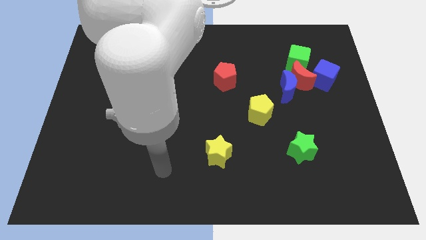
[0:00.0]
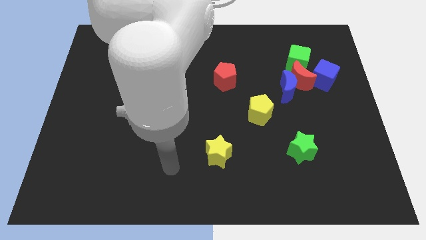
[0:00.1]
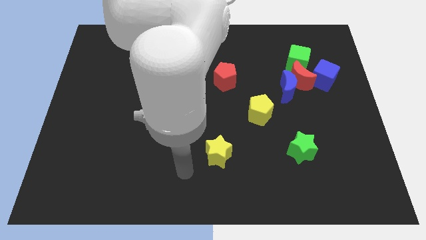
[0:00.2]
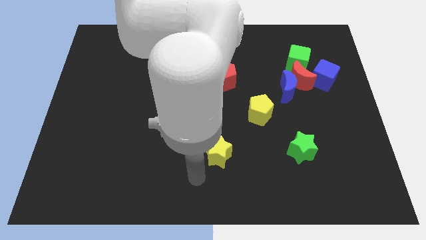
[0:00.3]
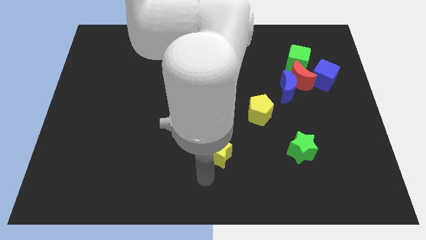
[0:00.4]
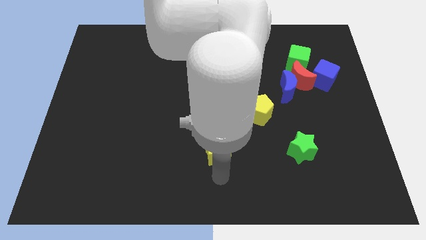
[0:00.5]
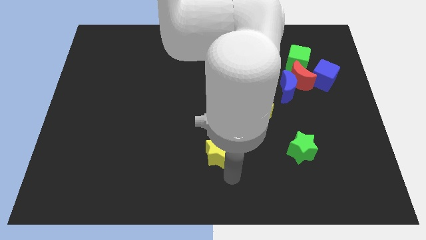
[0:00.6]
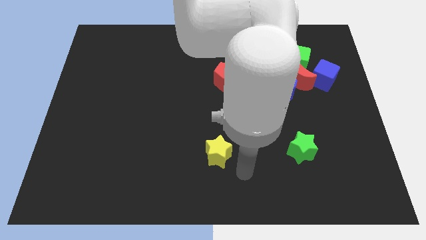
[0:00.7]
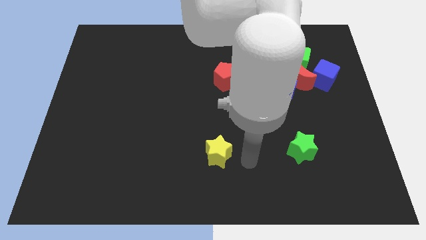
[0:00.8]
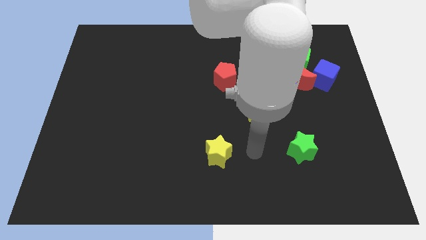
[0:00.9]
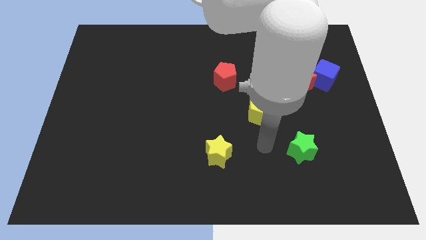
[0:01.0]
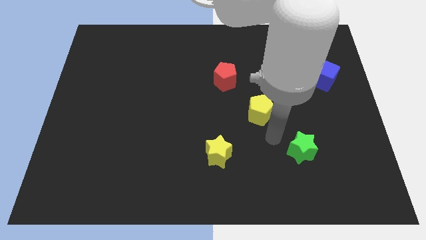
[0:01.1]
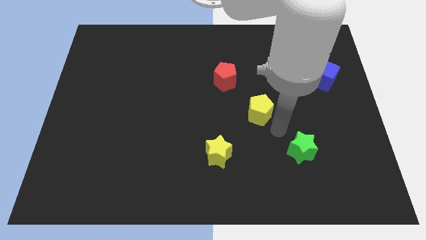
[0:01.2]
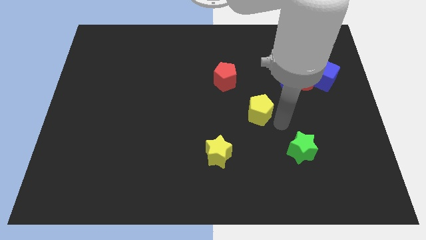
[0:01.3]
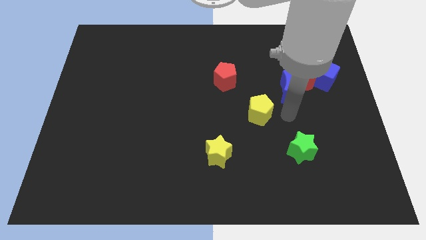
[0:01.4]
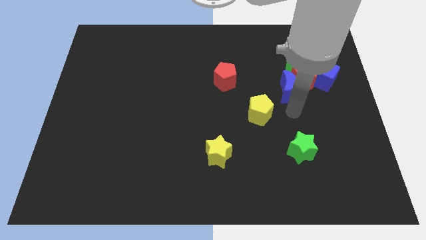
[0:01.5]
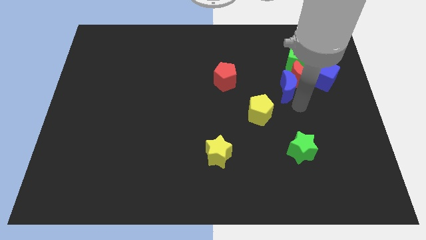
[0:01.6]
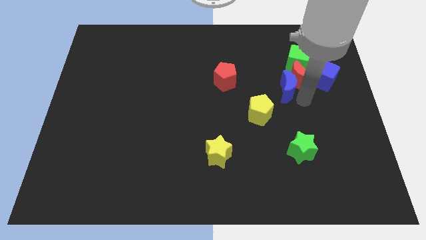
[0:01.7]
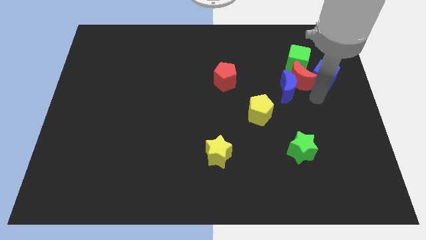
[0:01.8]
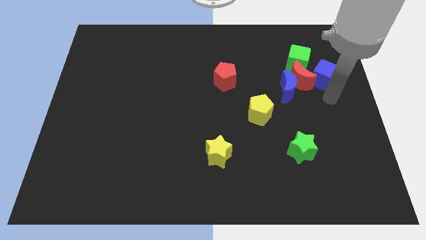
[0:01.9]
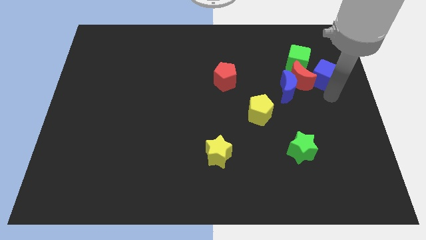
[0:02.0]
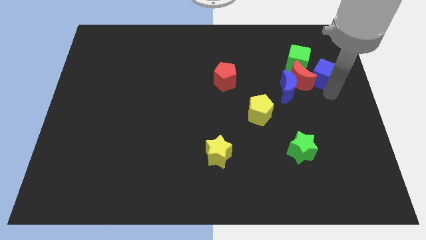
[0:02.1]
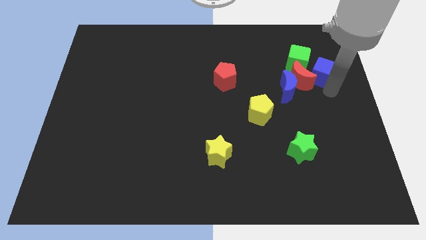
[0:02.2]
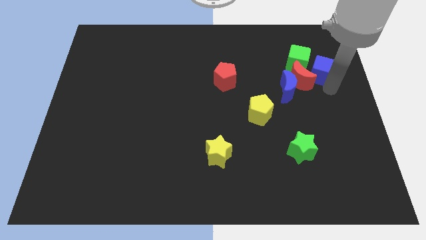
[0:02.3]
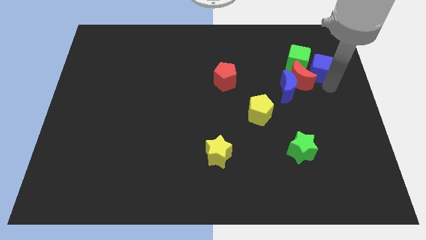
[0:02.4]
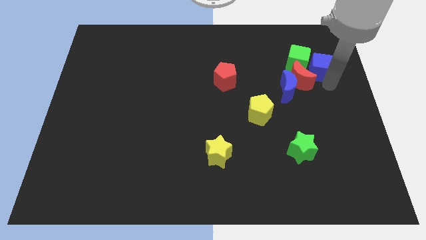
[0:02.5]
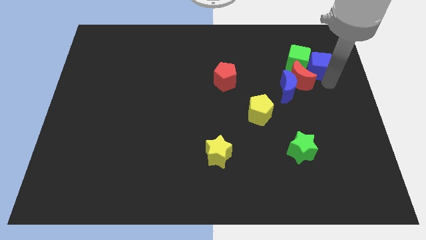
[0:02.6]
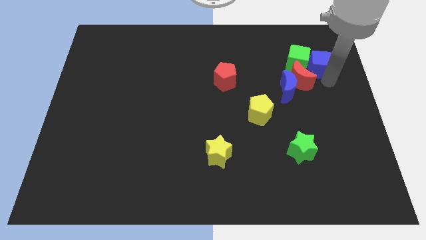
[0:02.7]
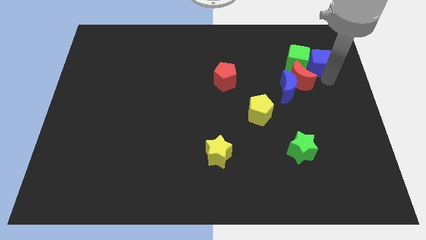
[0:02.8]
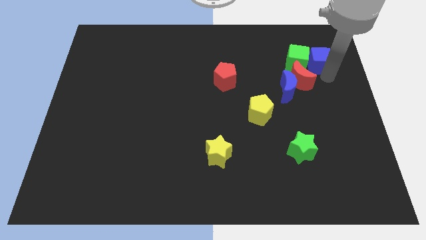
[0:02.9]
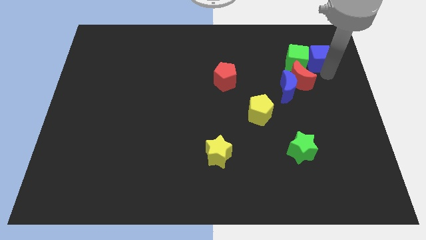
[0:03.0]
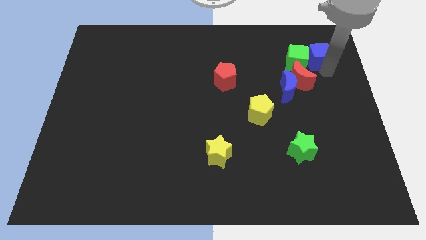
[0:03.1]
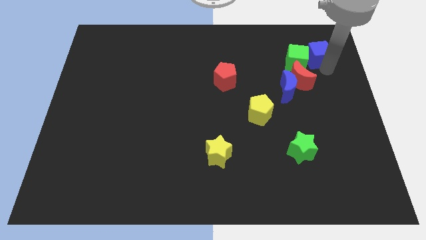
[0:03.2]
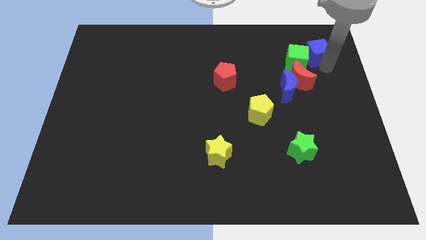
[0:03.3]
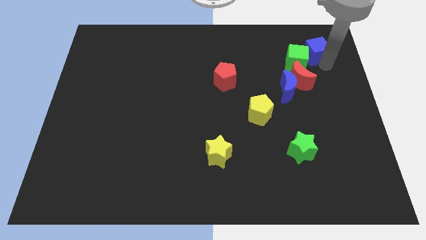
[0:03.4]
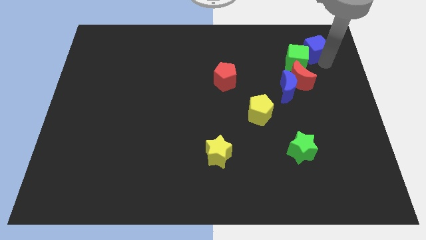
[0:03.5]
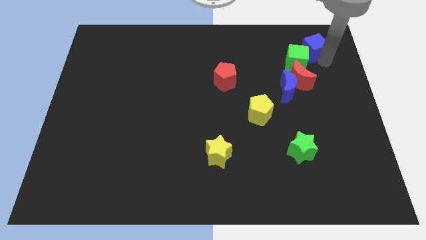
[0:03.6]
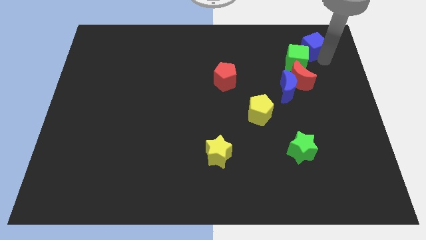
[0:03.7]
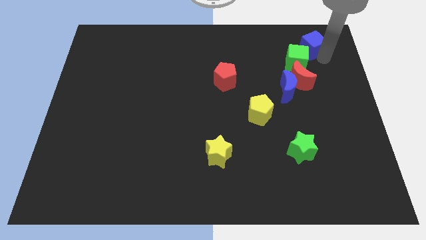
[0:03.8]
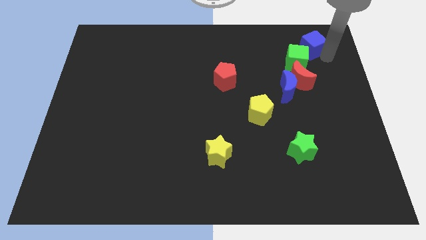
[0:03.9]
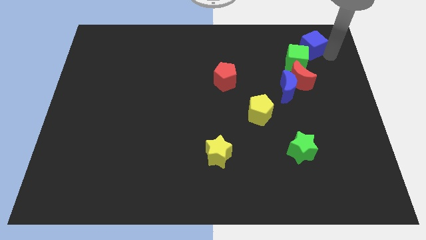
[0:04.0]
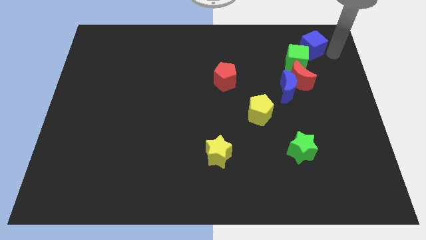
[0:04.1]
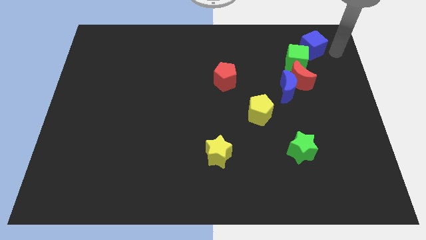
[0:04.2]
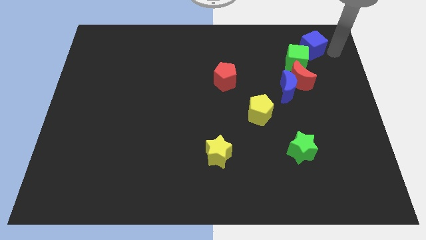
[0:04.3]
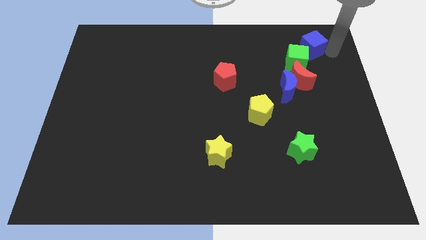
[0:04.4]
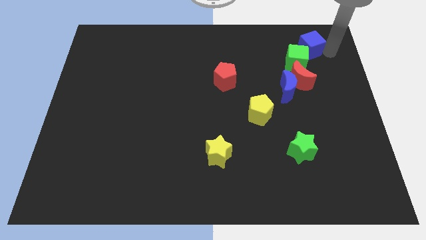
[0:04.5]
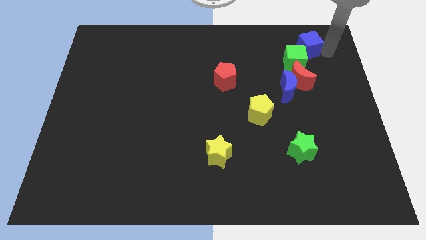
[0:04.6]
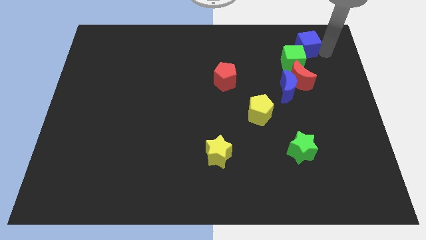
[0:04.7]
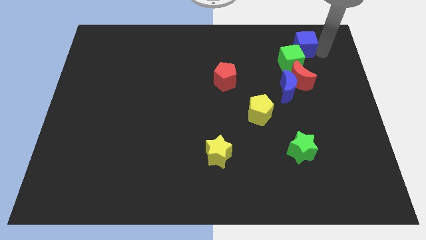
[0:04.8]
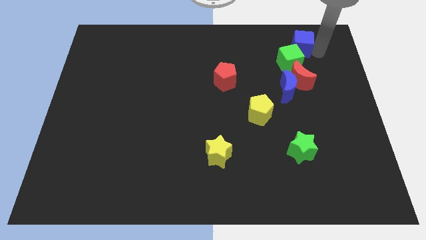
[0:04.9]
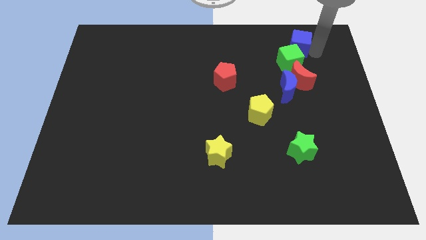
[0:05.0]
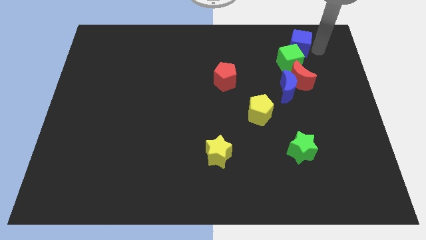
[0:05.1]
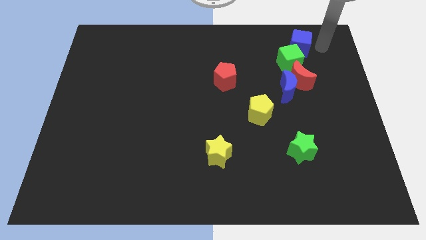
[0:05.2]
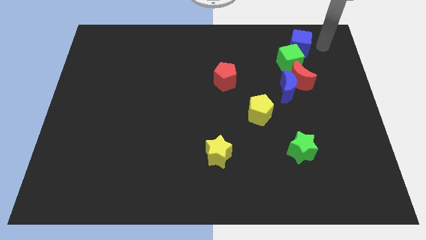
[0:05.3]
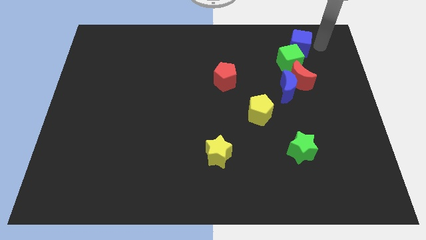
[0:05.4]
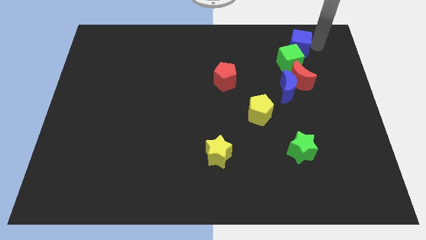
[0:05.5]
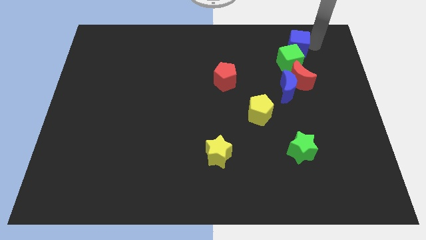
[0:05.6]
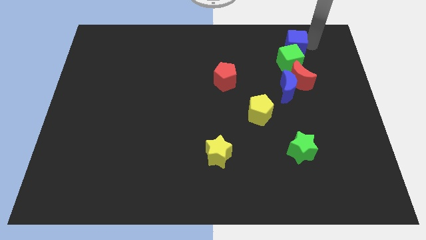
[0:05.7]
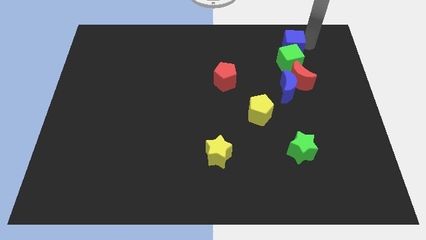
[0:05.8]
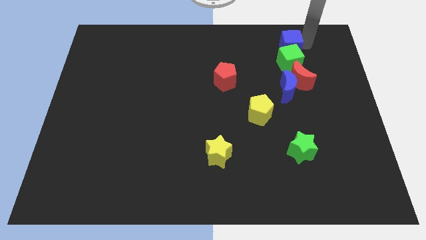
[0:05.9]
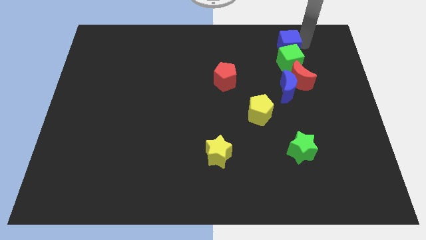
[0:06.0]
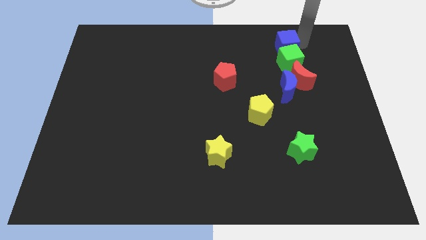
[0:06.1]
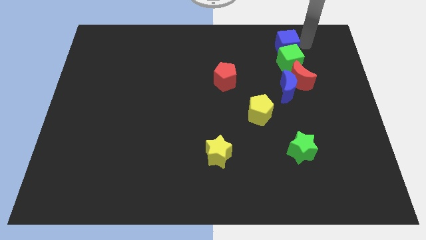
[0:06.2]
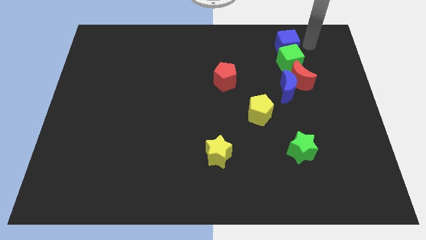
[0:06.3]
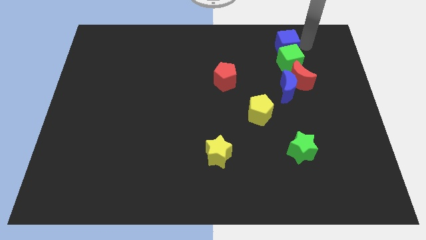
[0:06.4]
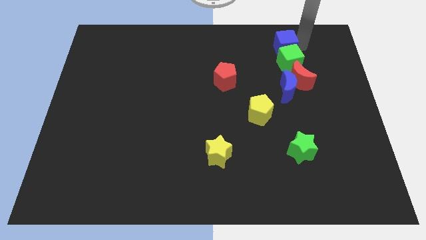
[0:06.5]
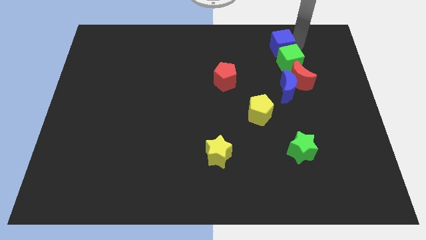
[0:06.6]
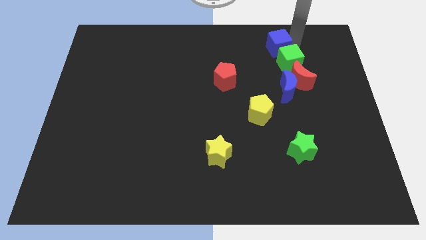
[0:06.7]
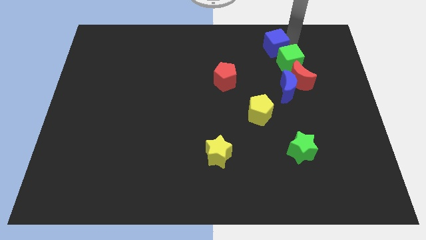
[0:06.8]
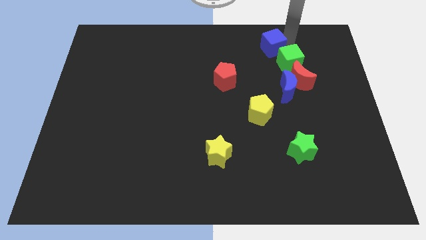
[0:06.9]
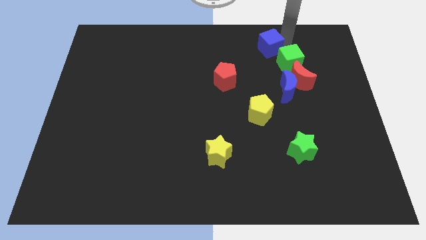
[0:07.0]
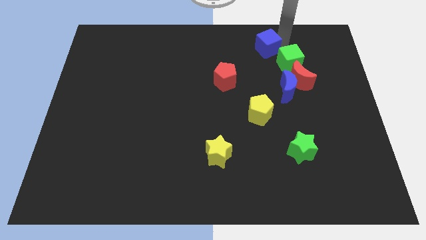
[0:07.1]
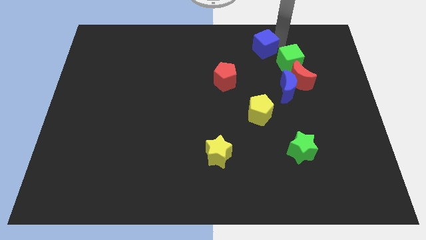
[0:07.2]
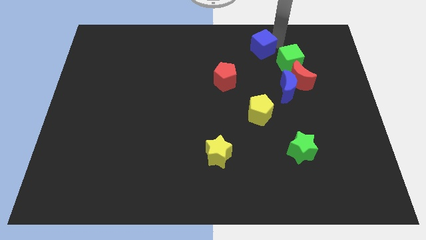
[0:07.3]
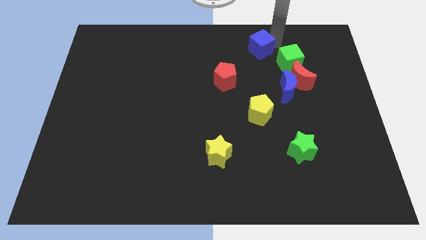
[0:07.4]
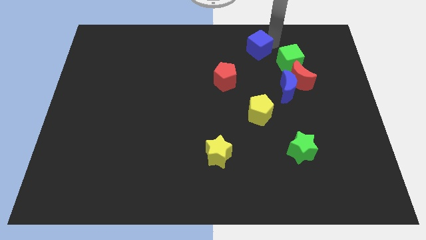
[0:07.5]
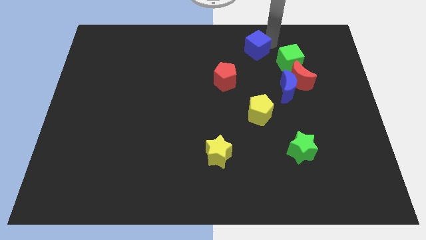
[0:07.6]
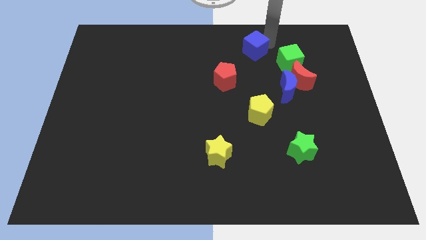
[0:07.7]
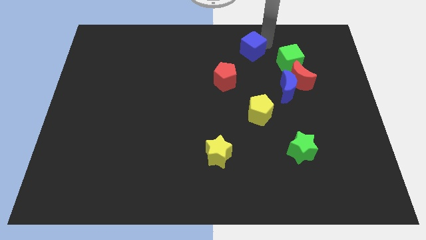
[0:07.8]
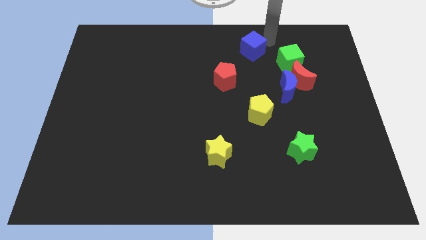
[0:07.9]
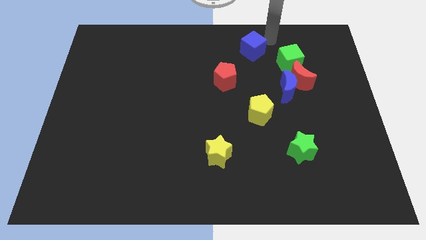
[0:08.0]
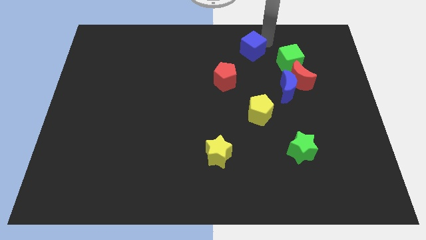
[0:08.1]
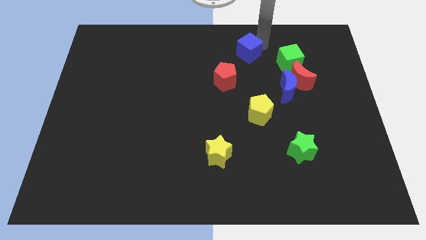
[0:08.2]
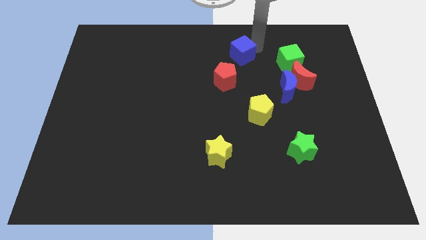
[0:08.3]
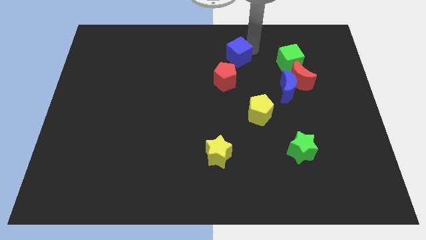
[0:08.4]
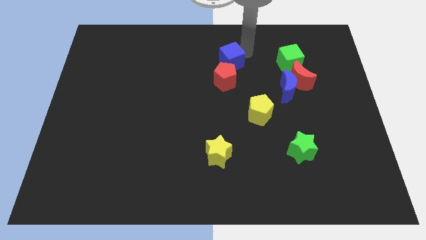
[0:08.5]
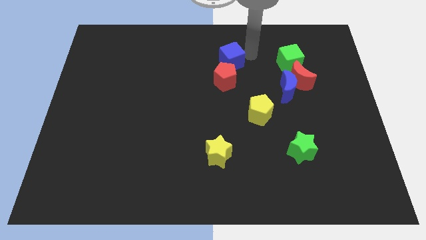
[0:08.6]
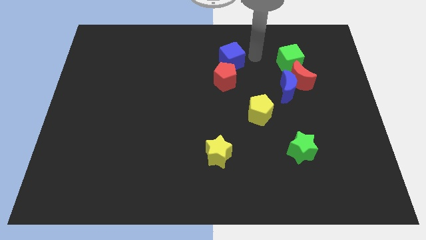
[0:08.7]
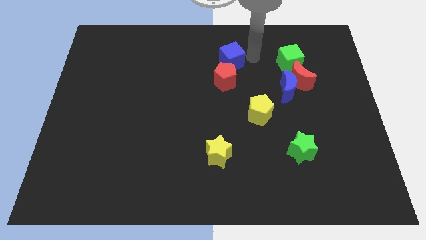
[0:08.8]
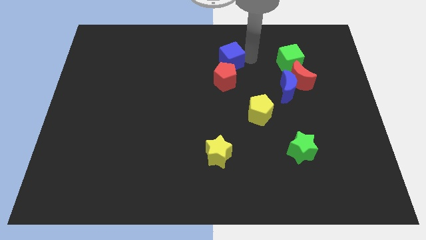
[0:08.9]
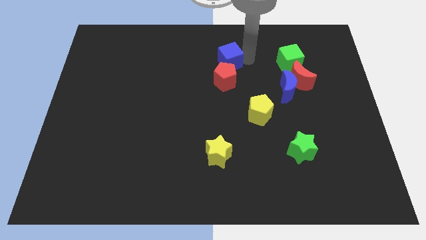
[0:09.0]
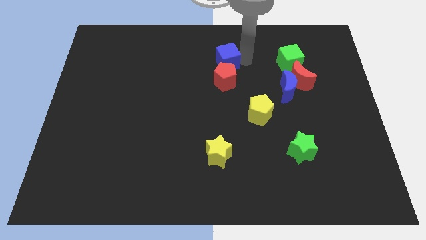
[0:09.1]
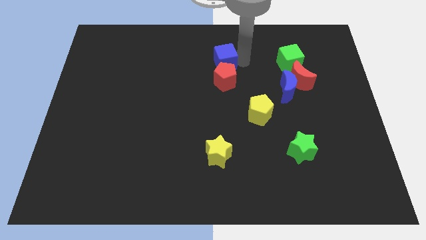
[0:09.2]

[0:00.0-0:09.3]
push the blue cube to the top left of the red pentagon
